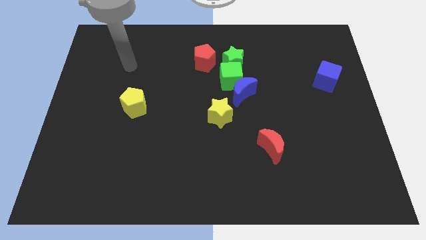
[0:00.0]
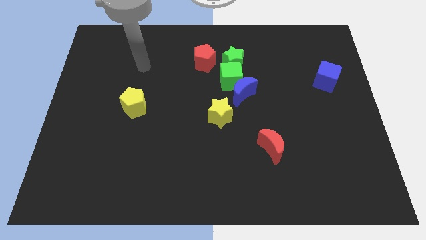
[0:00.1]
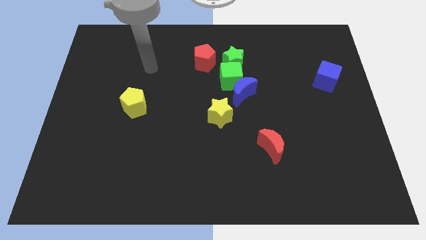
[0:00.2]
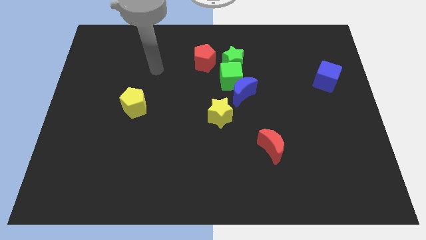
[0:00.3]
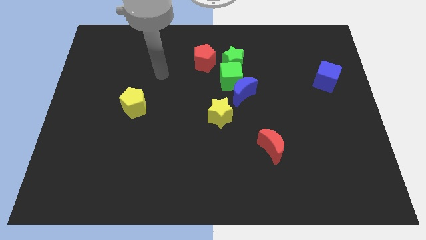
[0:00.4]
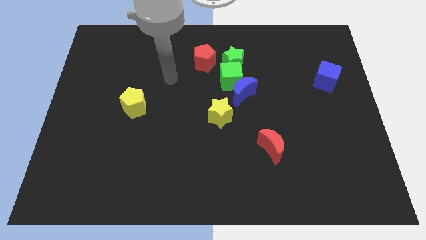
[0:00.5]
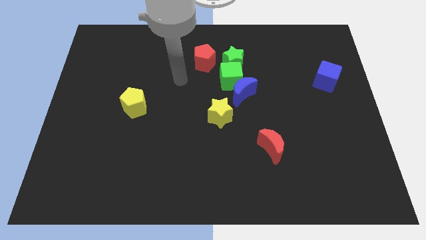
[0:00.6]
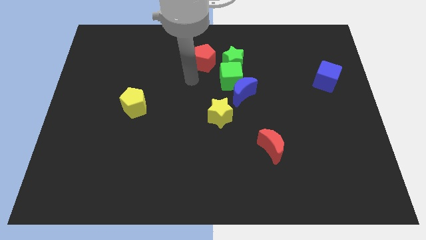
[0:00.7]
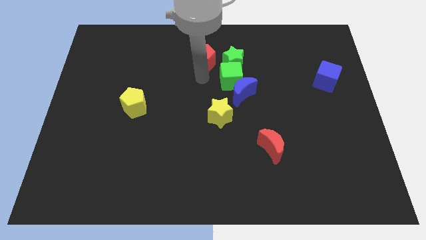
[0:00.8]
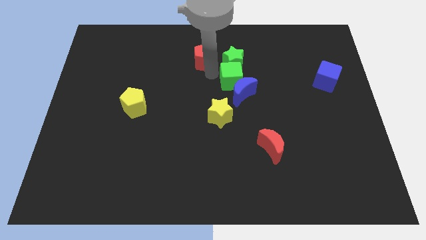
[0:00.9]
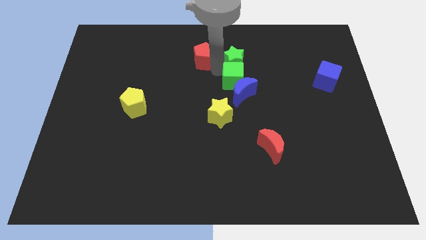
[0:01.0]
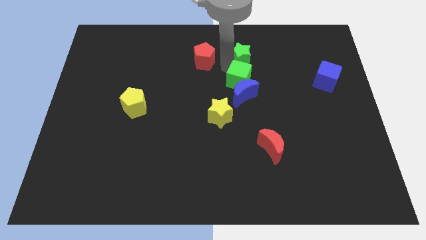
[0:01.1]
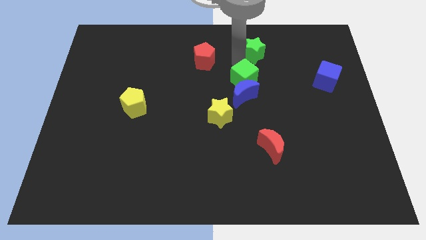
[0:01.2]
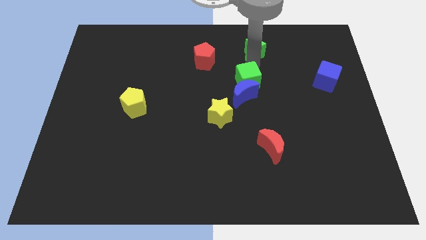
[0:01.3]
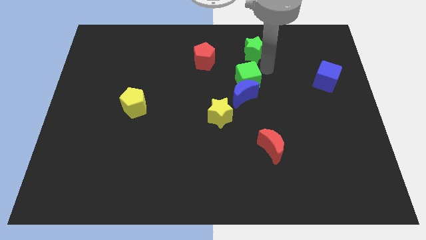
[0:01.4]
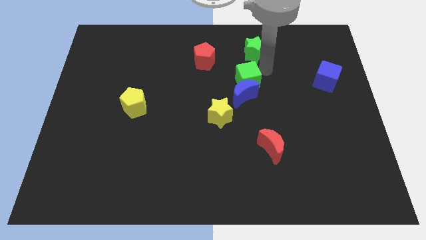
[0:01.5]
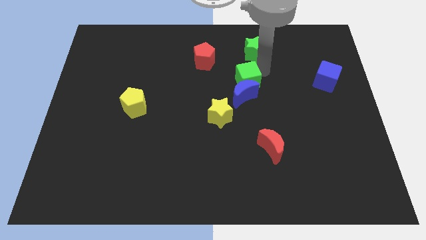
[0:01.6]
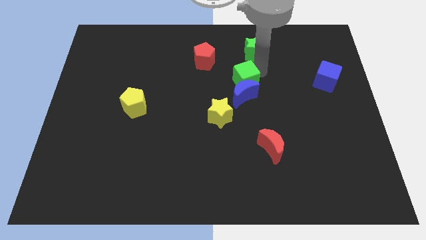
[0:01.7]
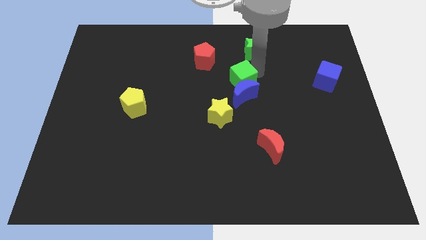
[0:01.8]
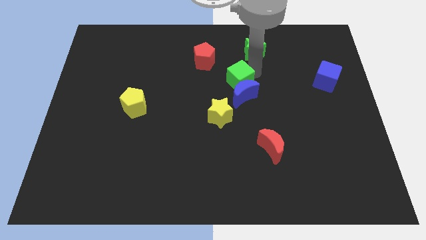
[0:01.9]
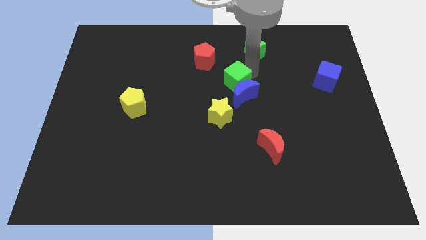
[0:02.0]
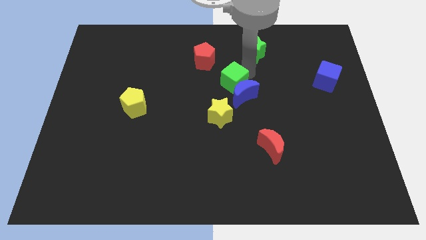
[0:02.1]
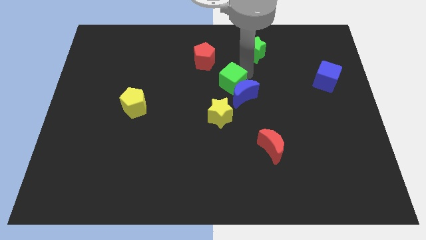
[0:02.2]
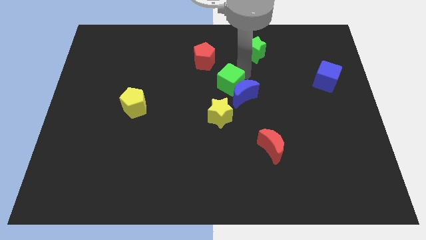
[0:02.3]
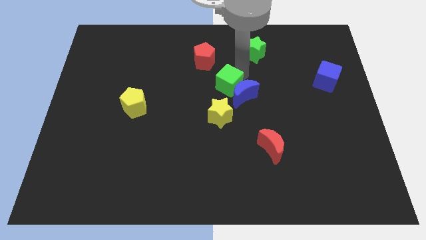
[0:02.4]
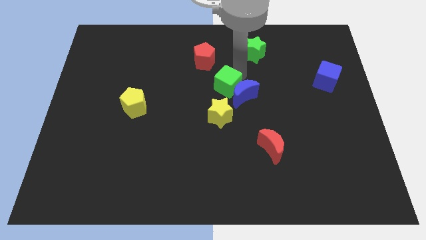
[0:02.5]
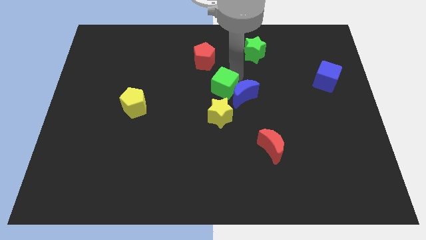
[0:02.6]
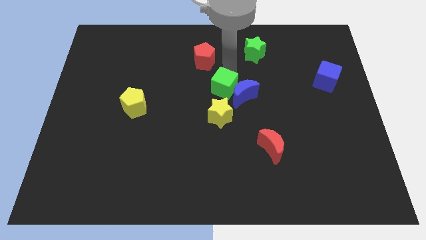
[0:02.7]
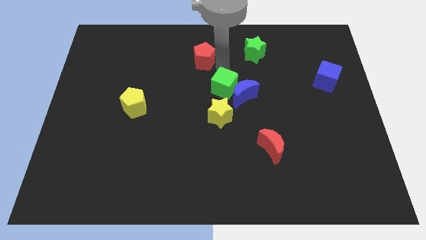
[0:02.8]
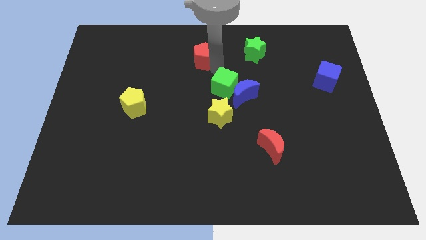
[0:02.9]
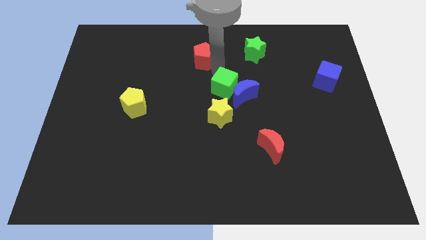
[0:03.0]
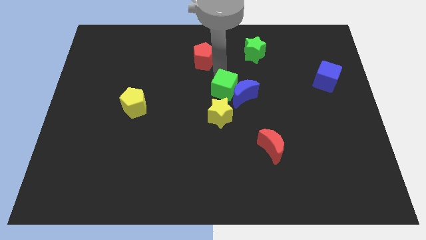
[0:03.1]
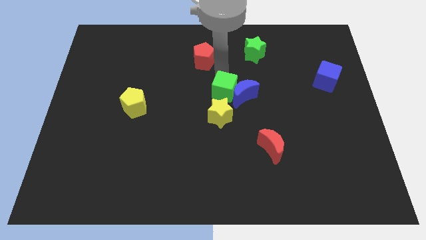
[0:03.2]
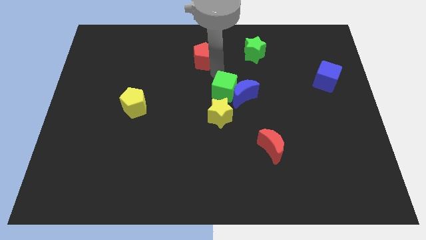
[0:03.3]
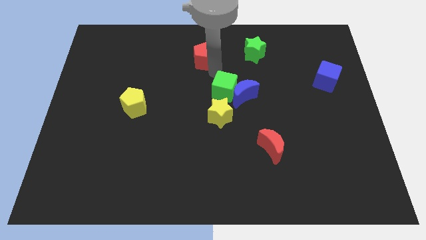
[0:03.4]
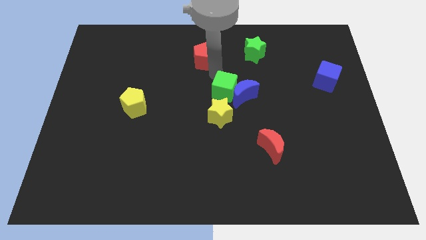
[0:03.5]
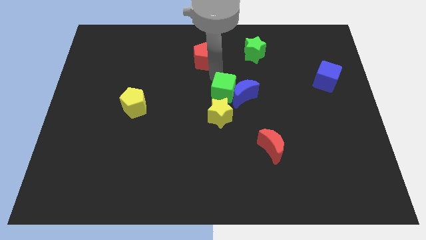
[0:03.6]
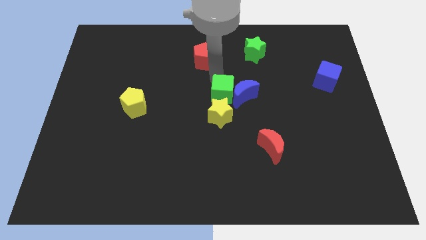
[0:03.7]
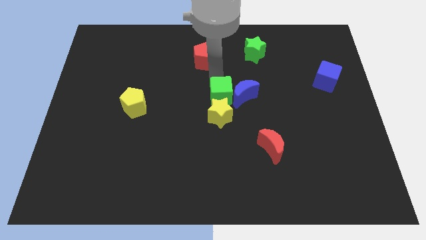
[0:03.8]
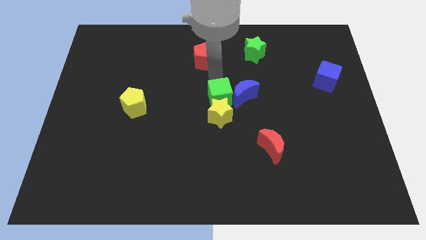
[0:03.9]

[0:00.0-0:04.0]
separate the green cube from the group of blocks

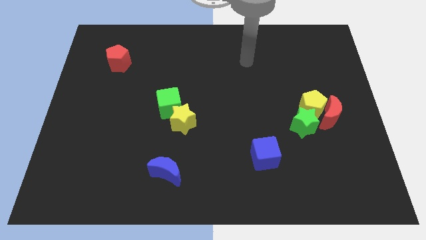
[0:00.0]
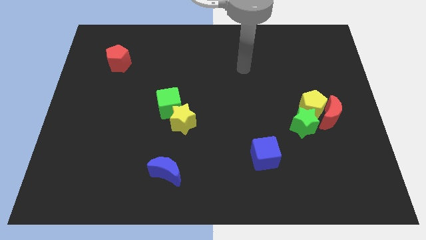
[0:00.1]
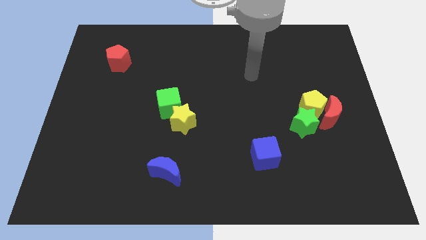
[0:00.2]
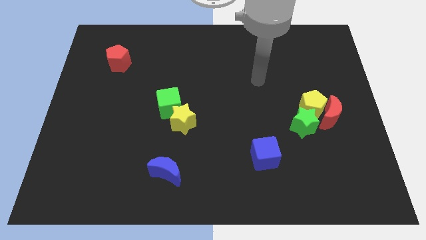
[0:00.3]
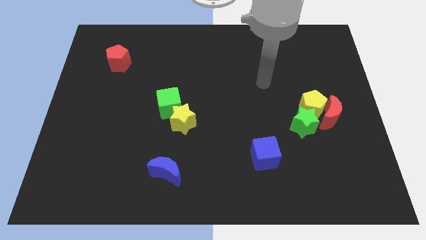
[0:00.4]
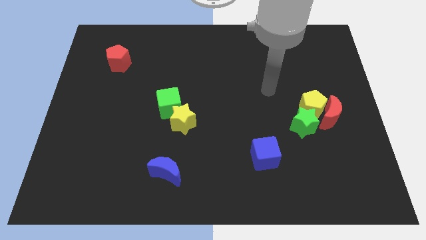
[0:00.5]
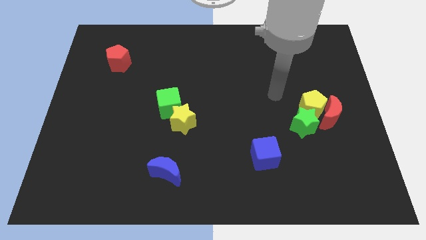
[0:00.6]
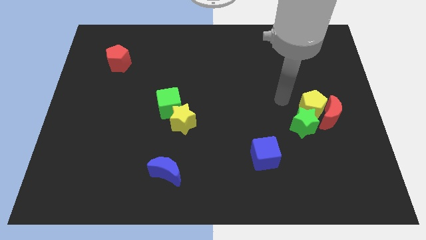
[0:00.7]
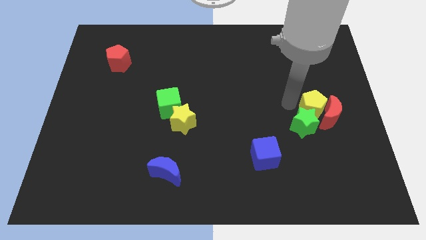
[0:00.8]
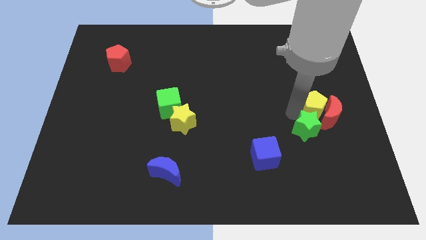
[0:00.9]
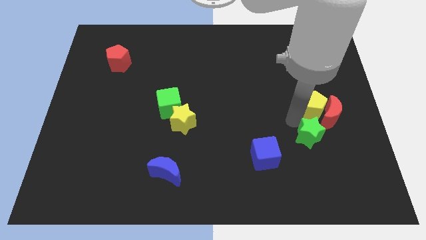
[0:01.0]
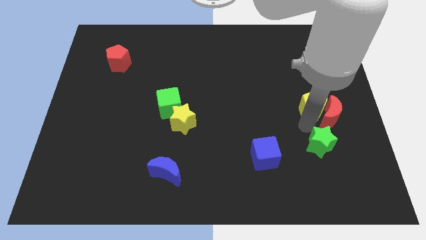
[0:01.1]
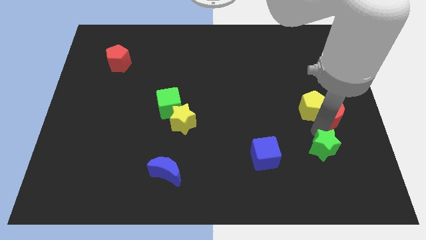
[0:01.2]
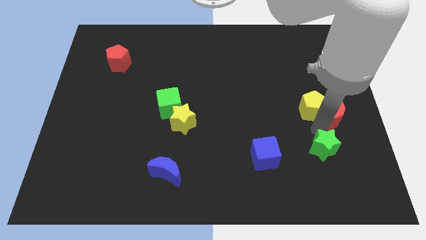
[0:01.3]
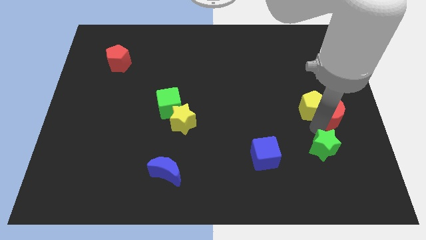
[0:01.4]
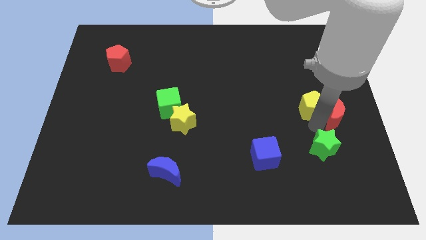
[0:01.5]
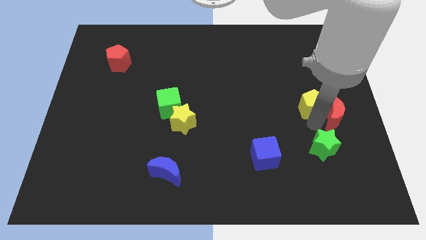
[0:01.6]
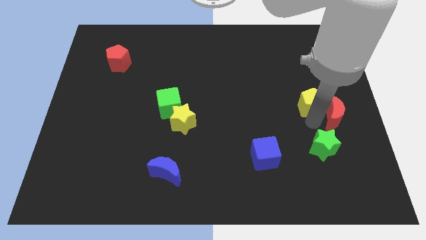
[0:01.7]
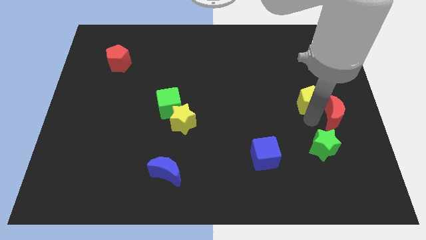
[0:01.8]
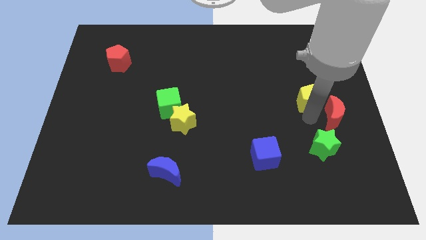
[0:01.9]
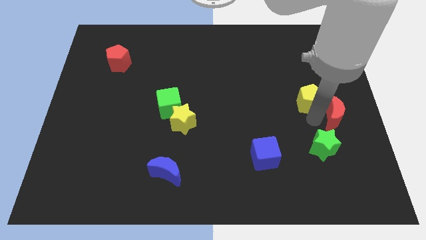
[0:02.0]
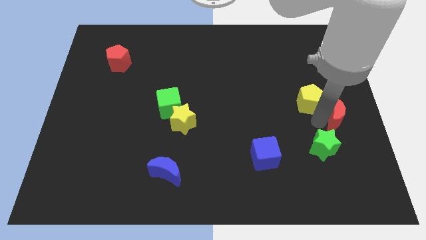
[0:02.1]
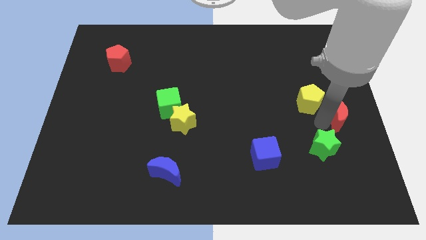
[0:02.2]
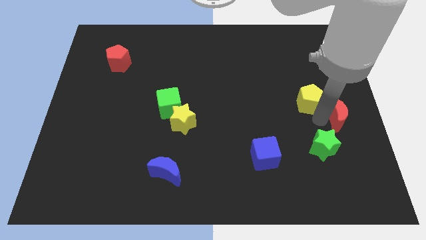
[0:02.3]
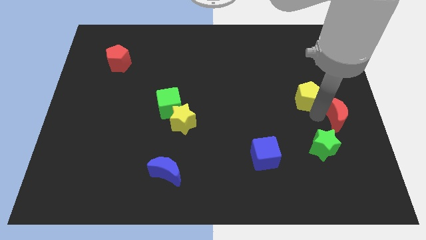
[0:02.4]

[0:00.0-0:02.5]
pull the yellow pentagon apart from the red moon and green star

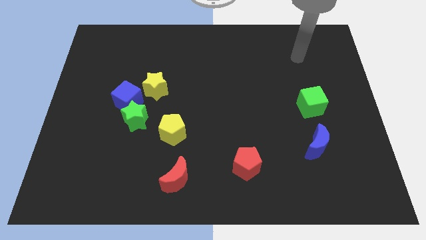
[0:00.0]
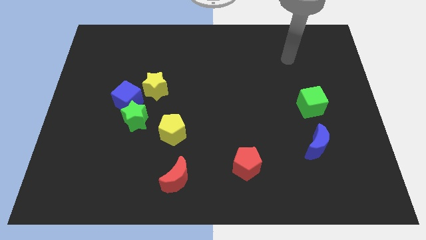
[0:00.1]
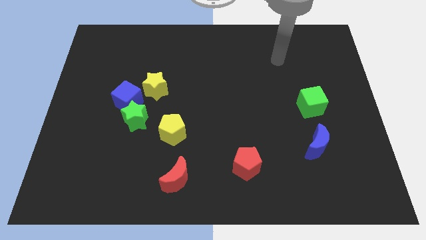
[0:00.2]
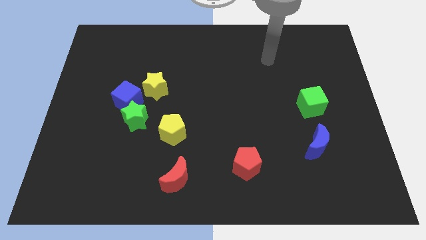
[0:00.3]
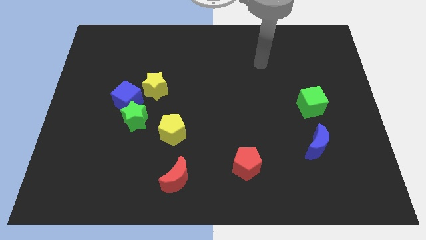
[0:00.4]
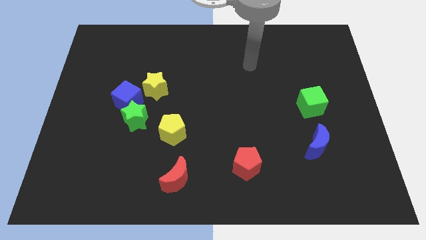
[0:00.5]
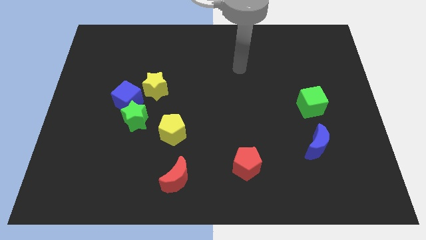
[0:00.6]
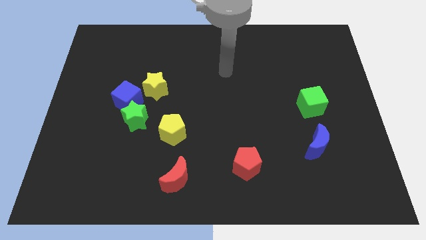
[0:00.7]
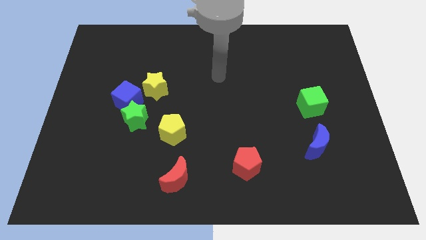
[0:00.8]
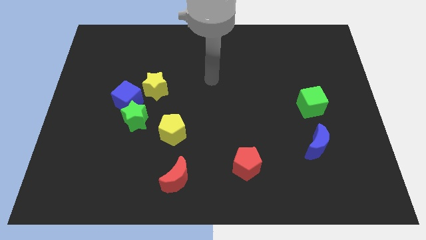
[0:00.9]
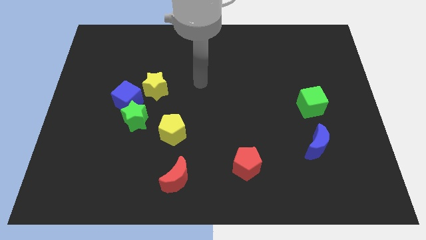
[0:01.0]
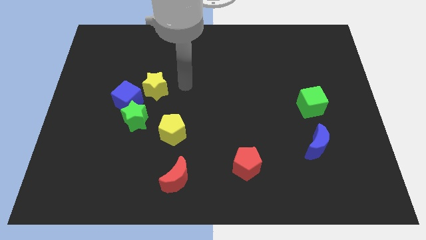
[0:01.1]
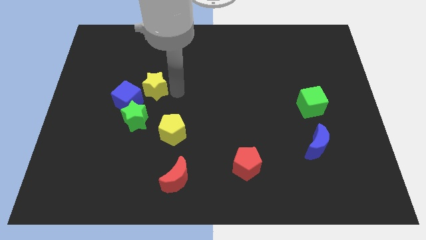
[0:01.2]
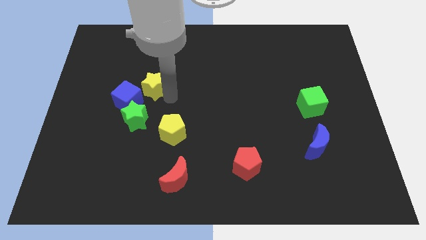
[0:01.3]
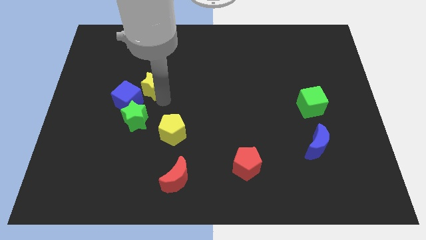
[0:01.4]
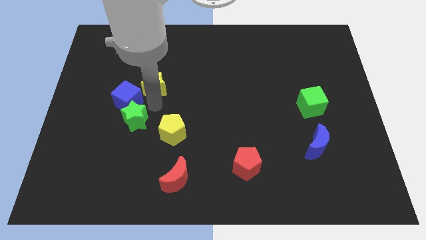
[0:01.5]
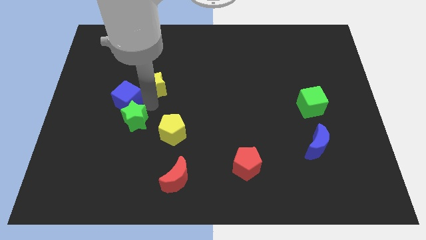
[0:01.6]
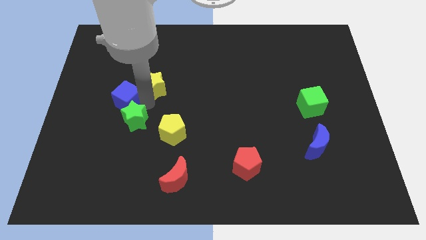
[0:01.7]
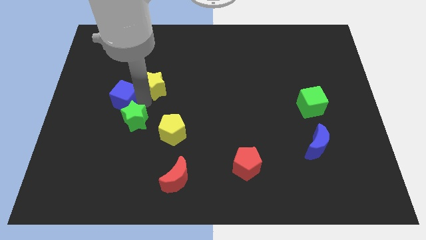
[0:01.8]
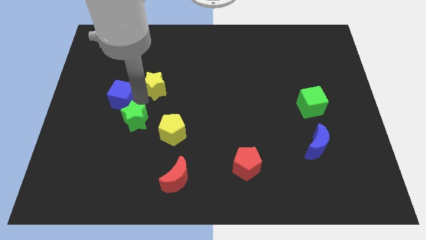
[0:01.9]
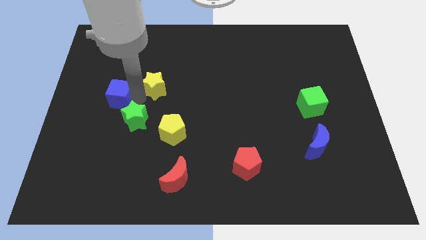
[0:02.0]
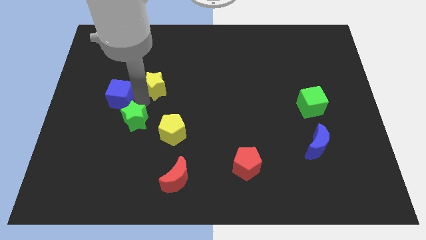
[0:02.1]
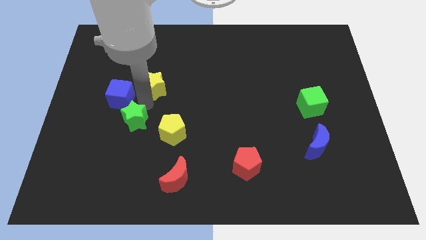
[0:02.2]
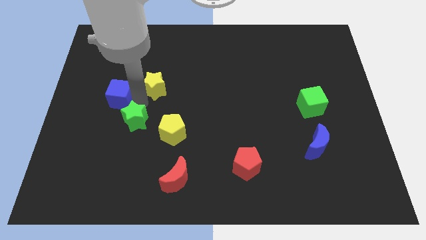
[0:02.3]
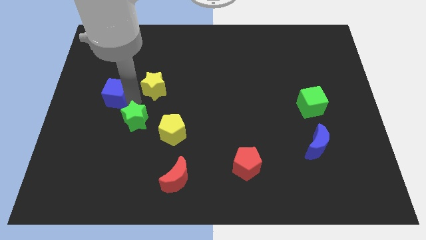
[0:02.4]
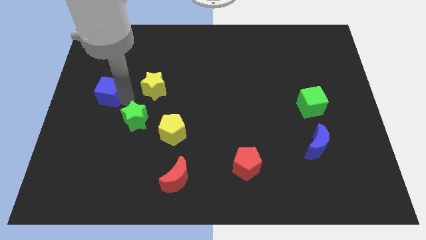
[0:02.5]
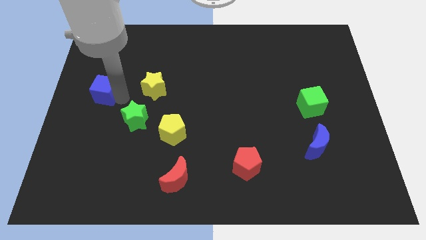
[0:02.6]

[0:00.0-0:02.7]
separate the blue cube from the green star and yellow star

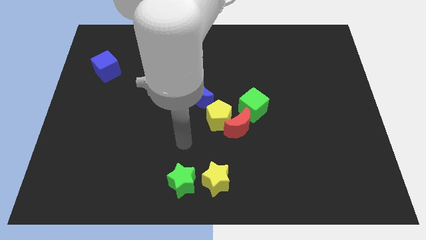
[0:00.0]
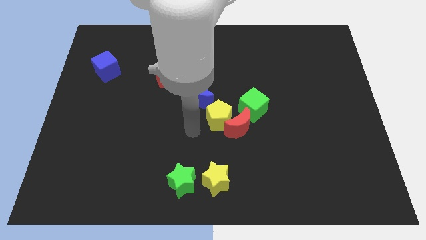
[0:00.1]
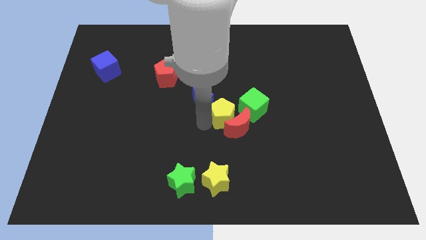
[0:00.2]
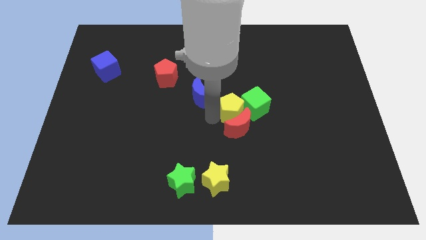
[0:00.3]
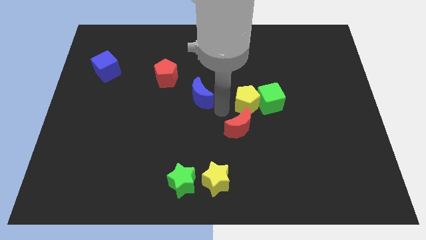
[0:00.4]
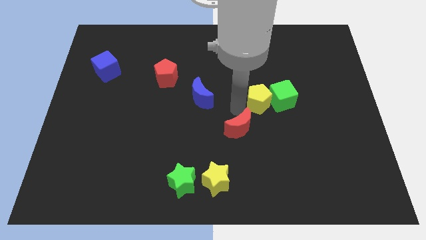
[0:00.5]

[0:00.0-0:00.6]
separate the red moon from the yellow pentagon and green cube
